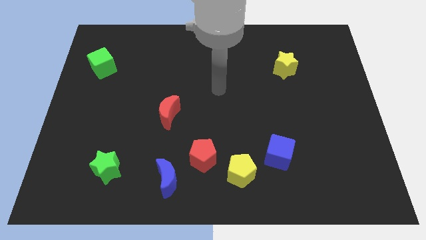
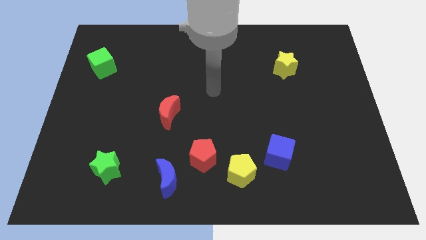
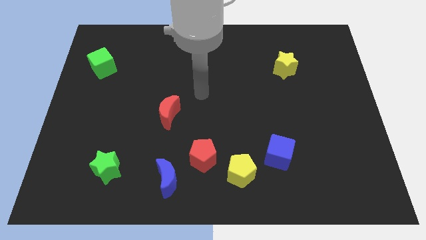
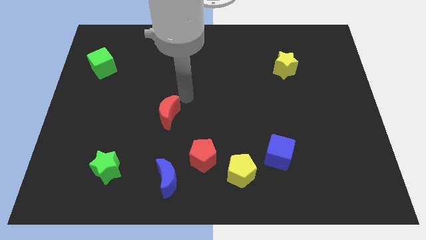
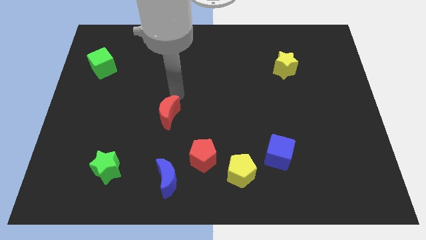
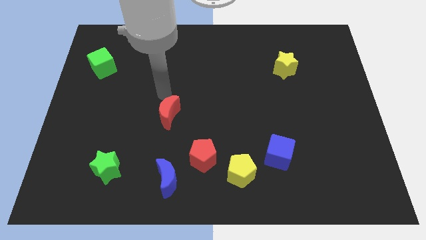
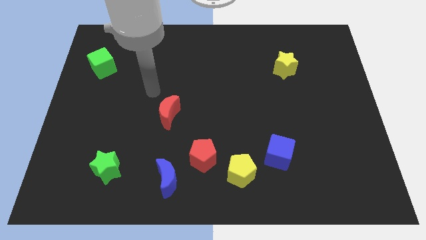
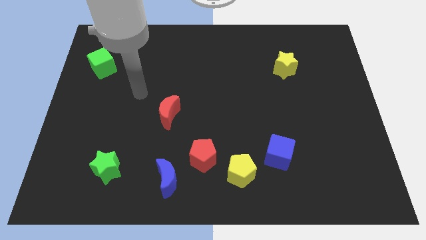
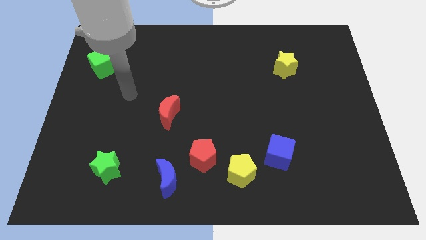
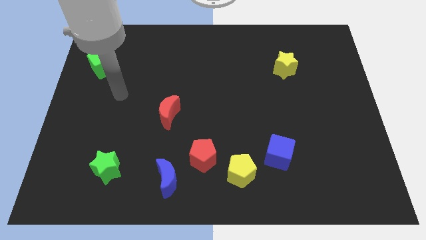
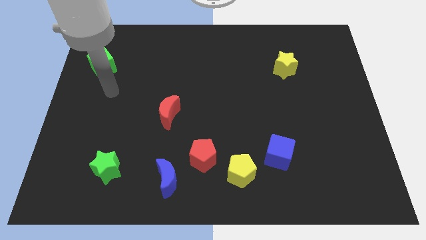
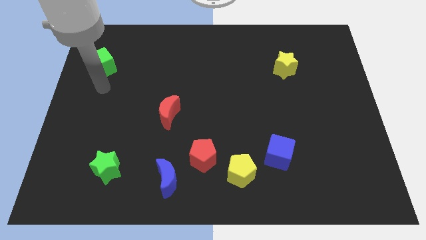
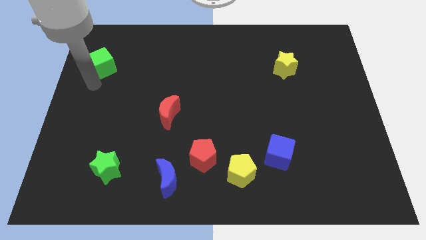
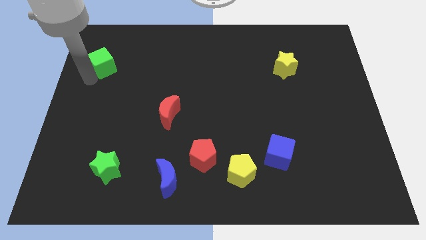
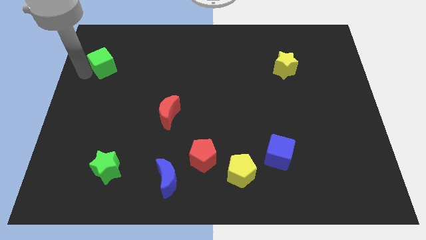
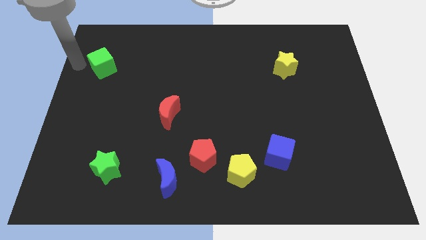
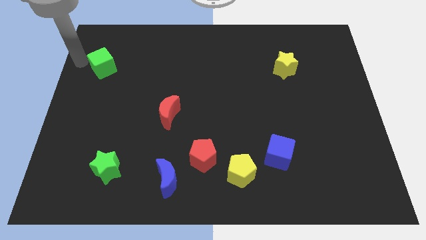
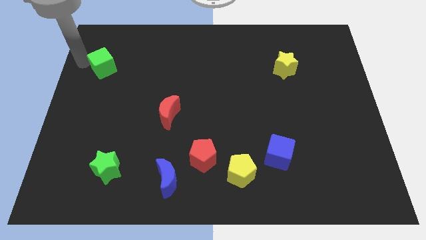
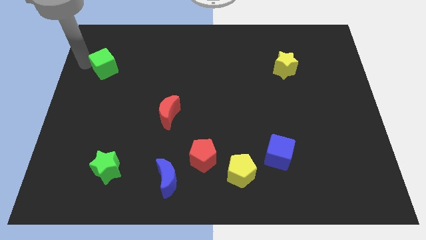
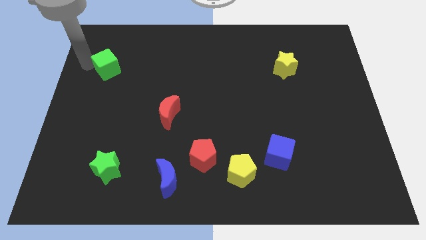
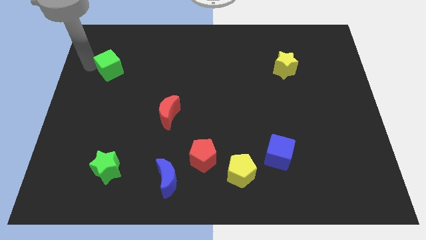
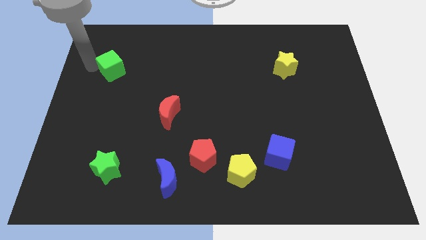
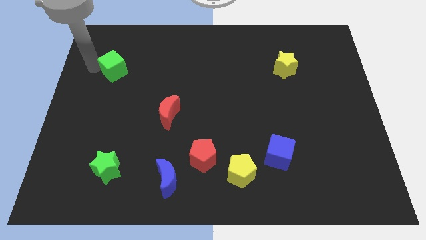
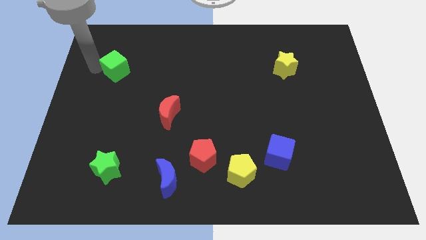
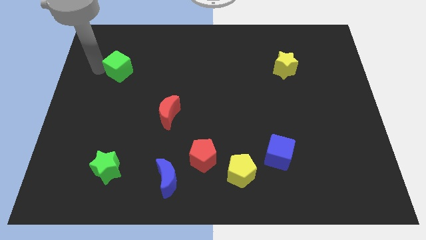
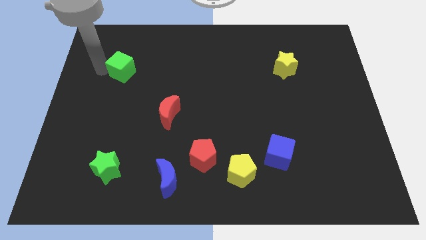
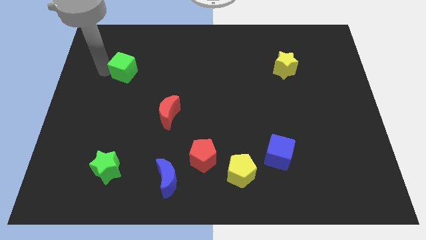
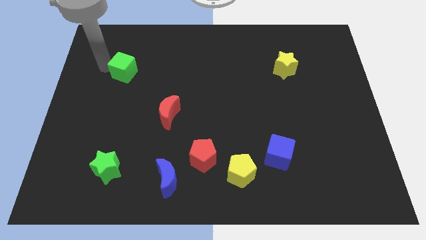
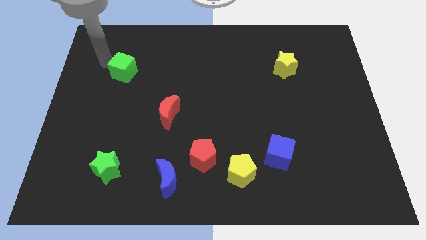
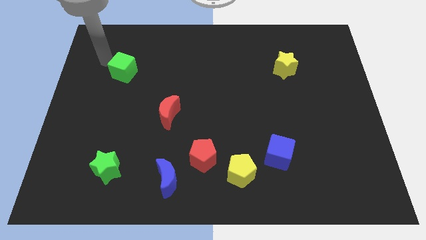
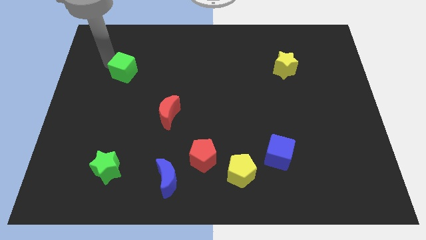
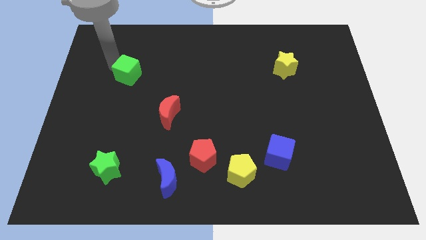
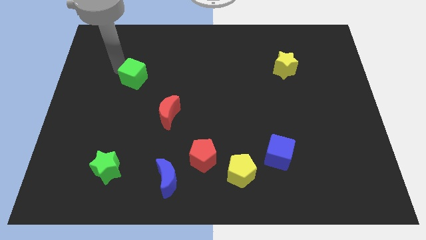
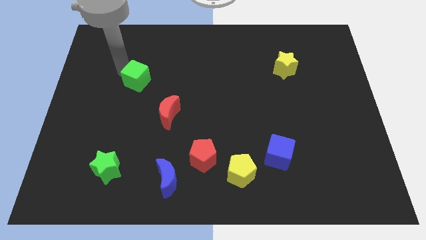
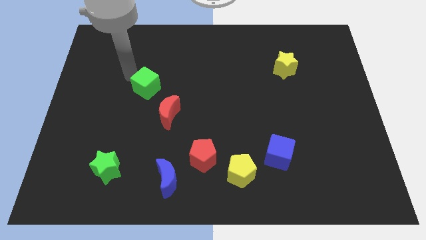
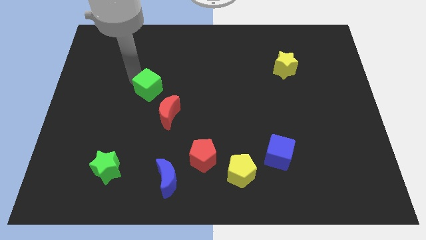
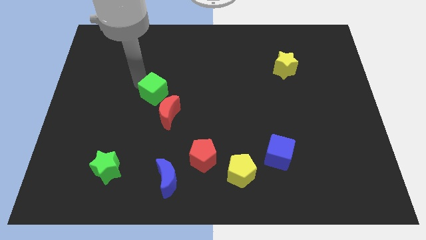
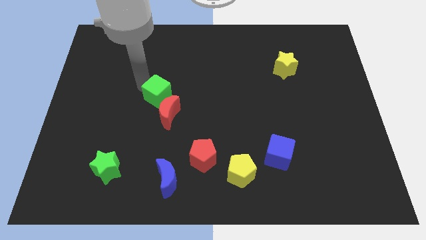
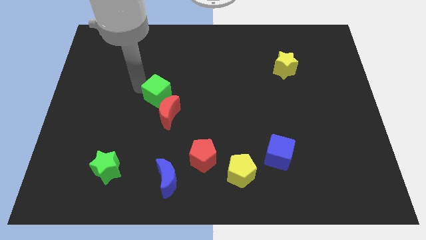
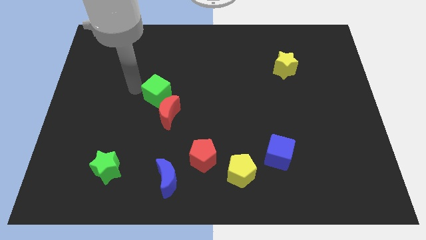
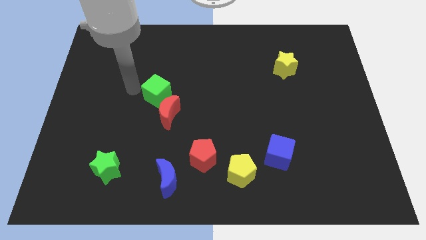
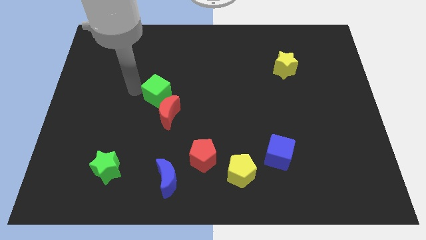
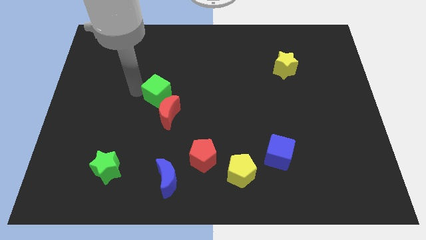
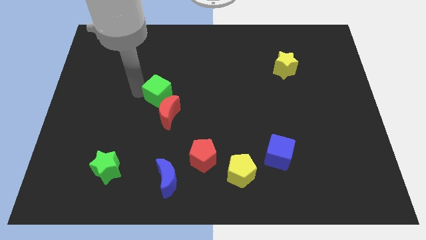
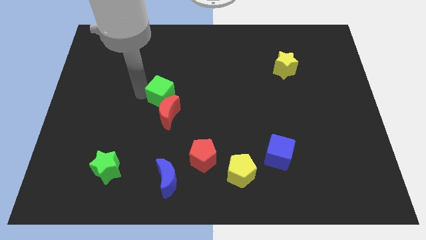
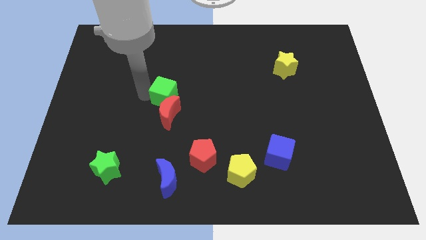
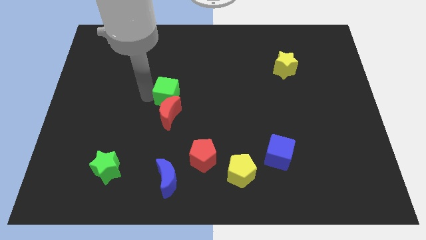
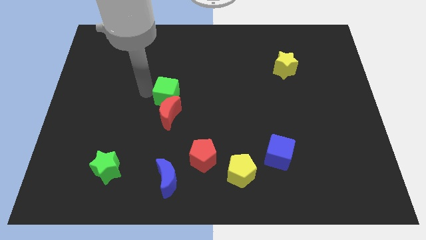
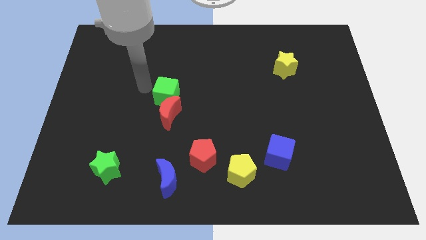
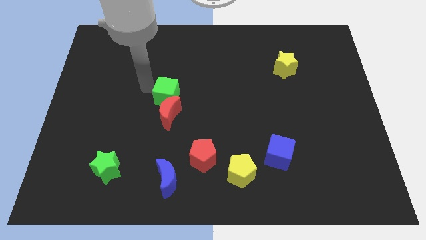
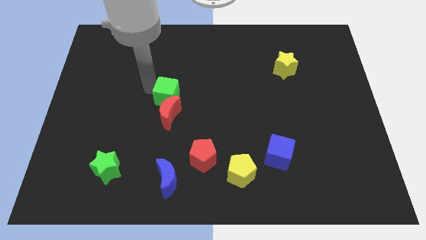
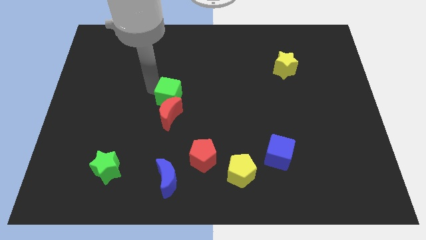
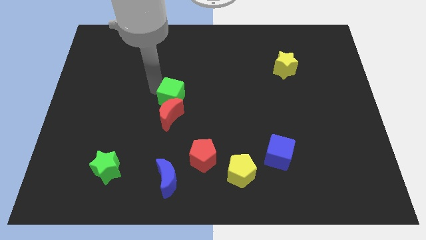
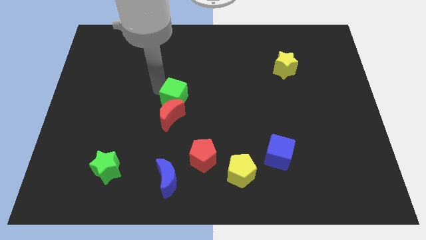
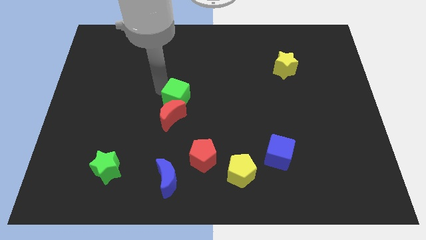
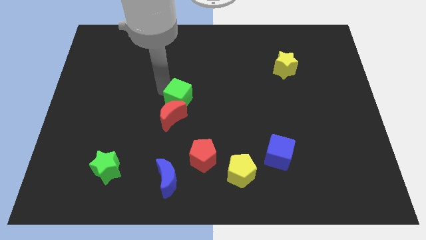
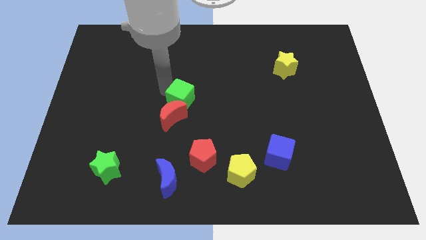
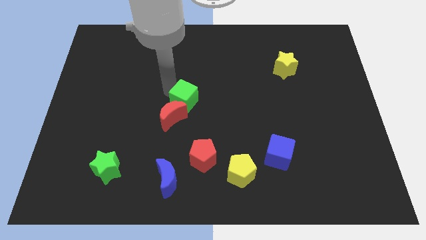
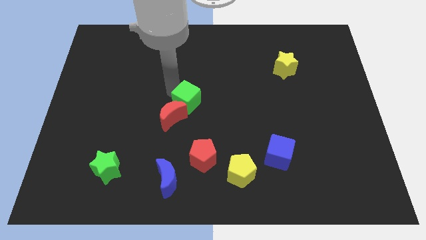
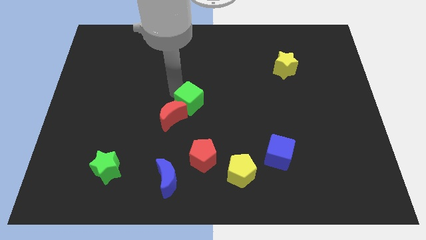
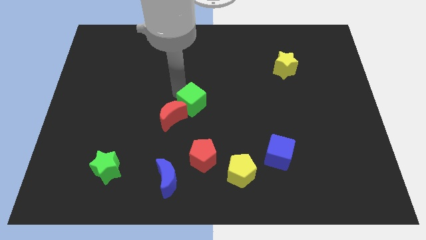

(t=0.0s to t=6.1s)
slide the green cube to the top of the red pentagon
